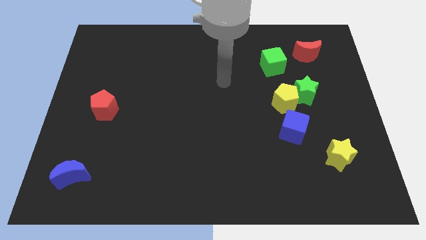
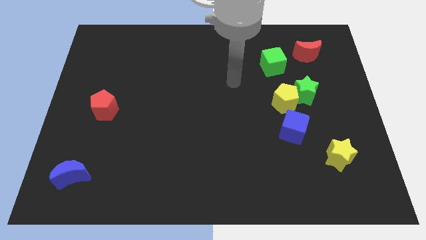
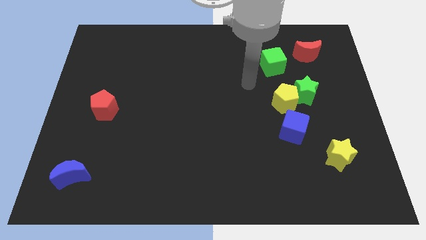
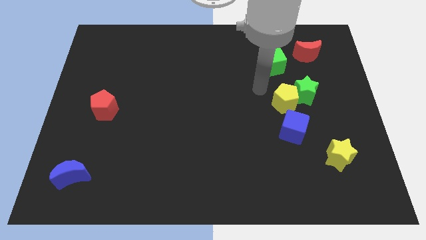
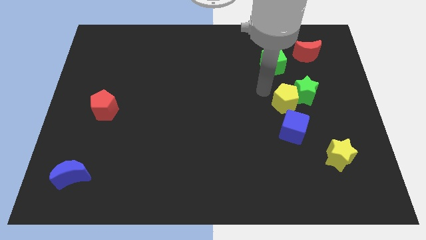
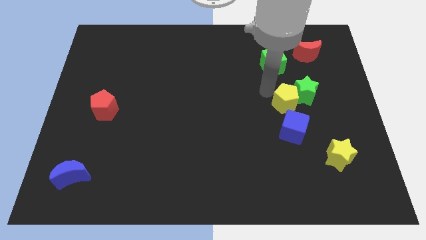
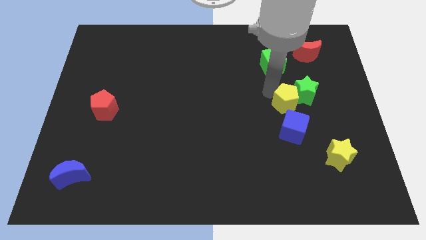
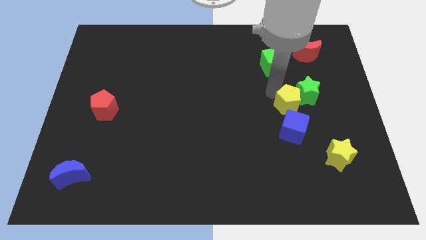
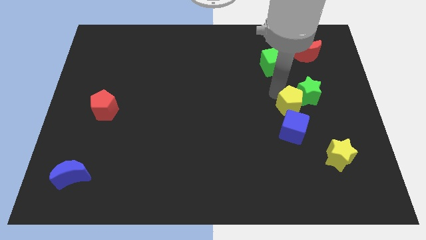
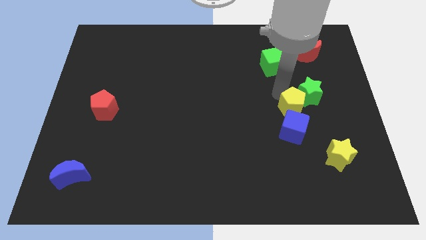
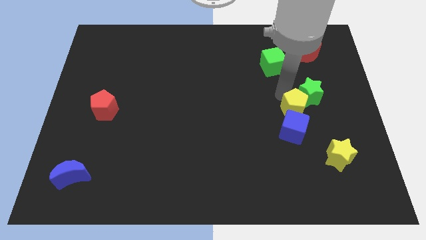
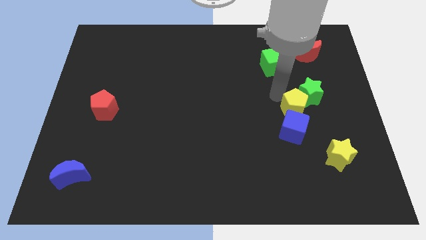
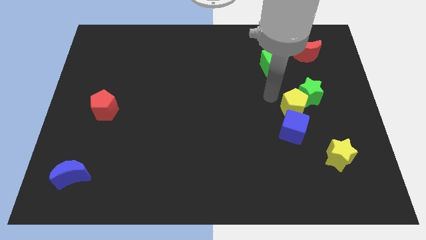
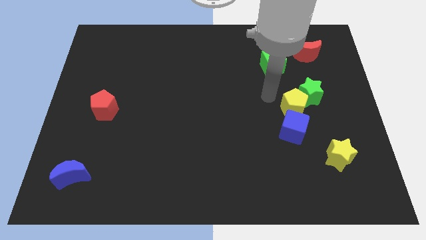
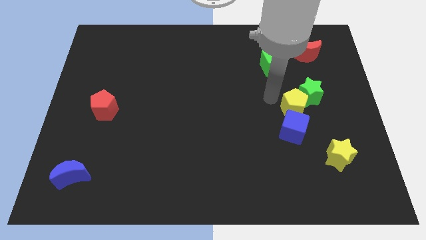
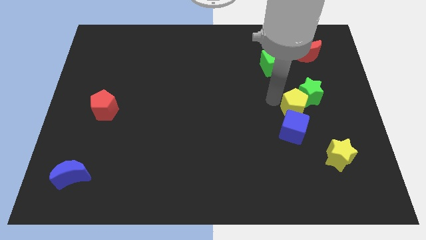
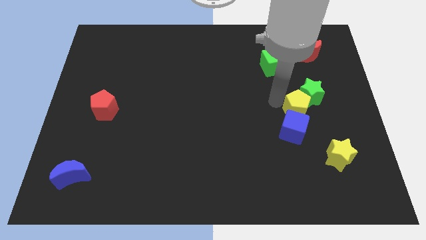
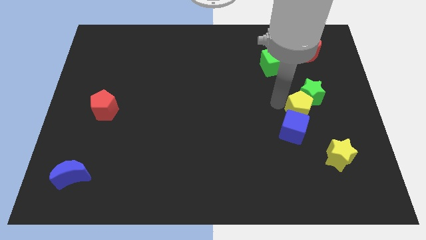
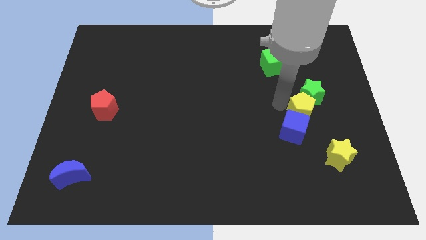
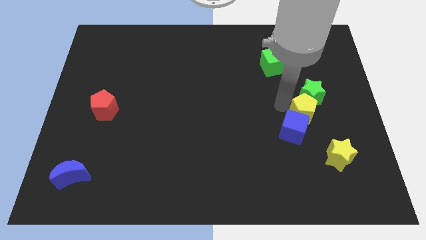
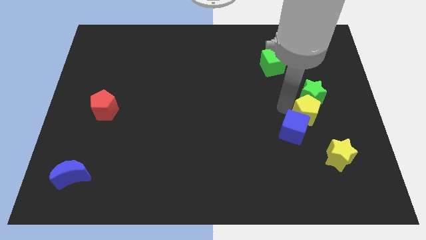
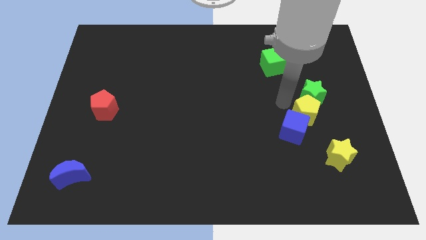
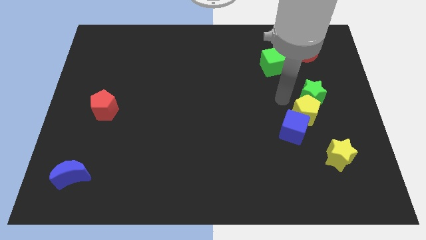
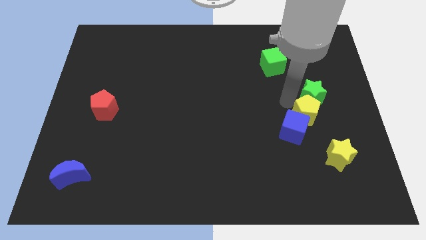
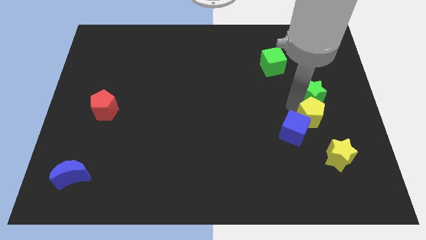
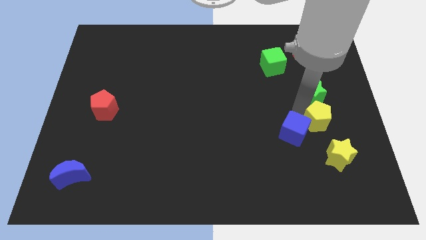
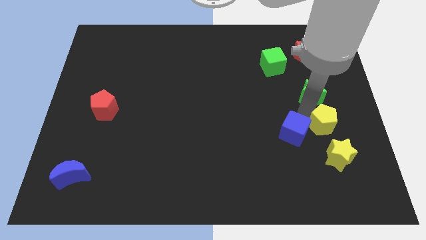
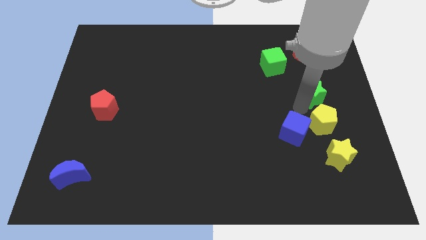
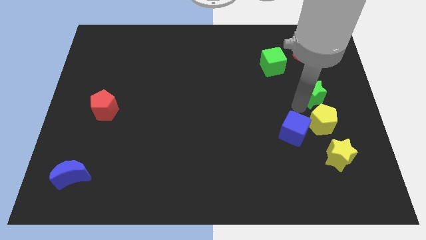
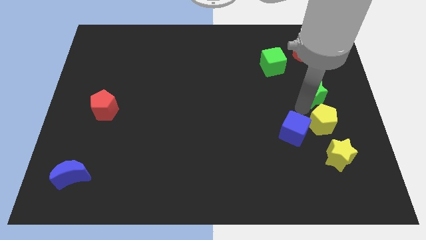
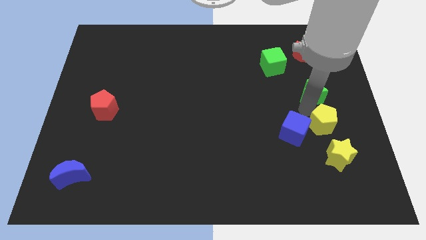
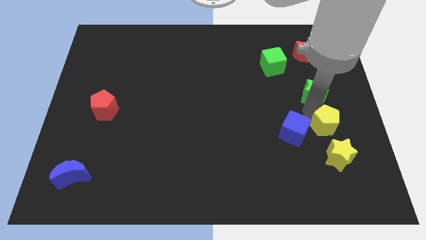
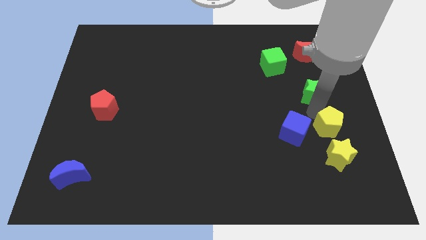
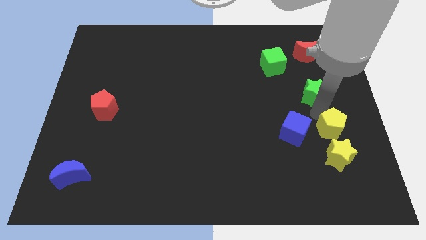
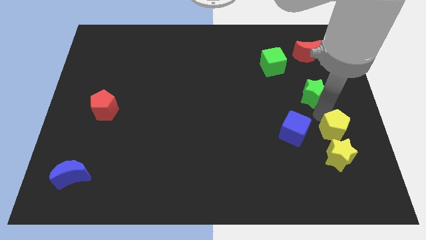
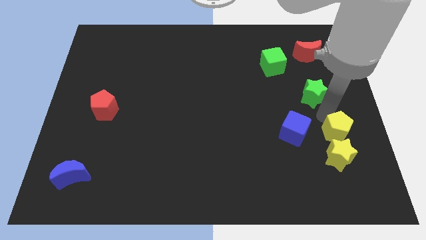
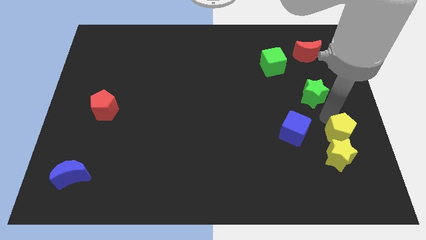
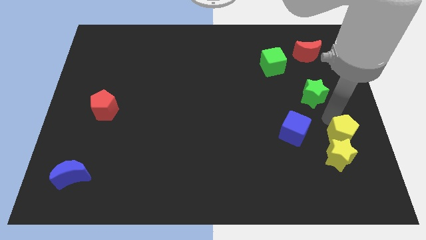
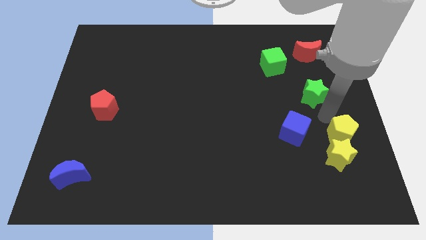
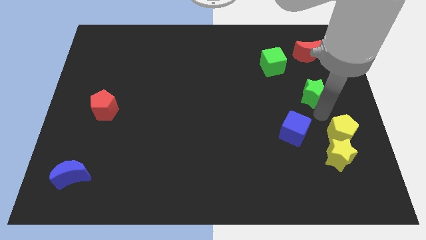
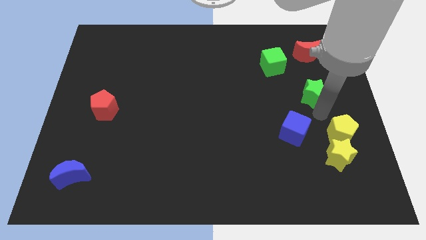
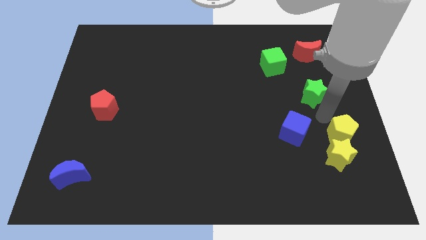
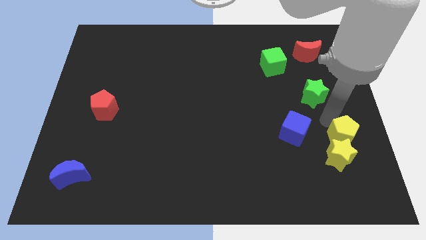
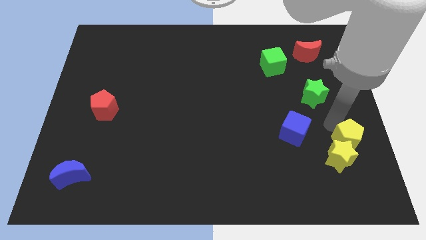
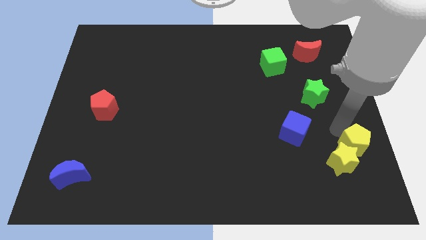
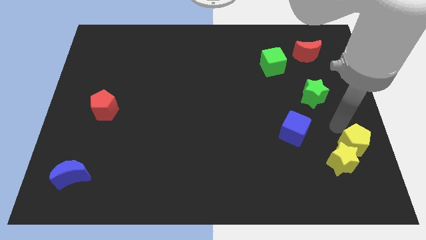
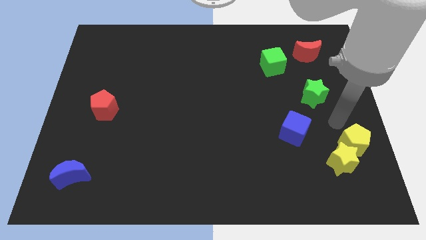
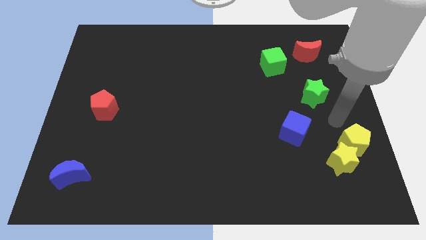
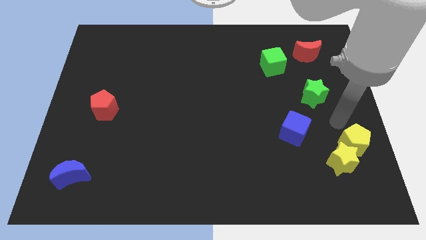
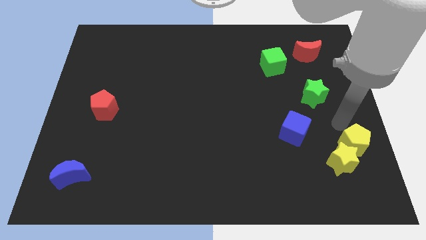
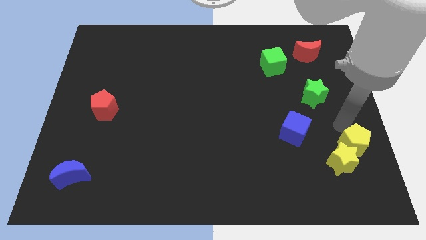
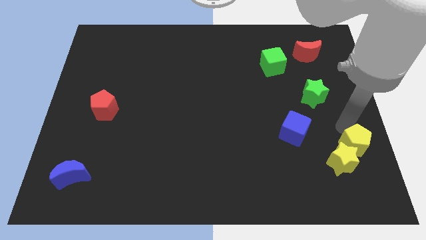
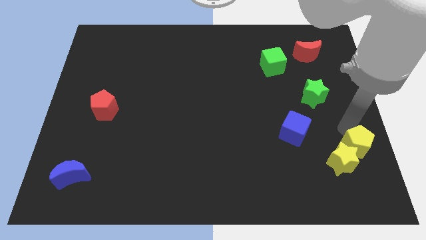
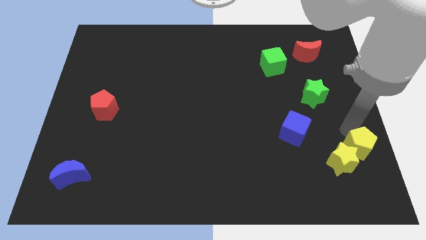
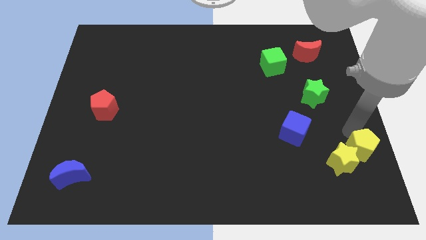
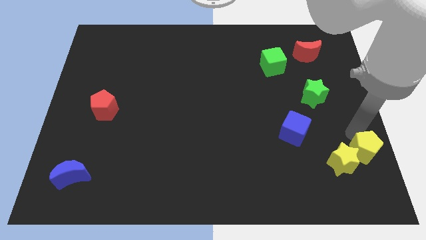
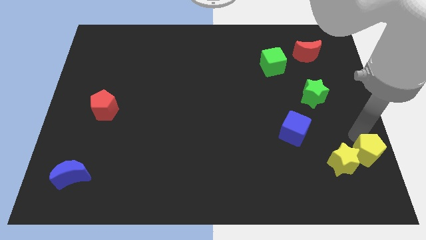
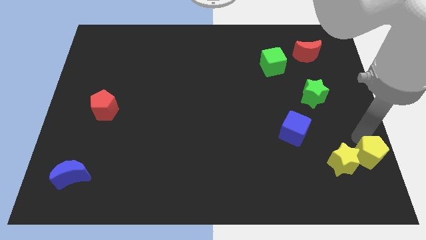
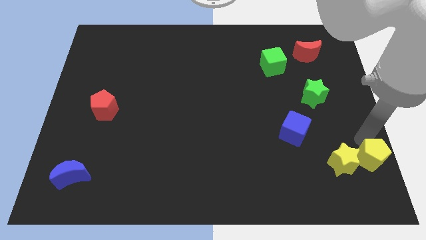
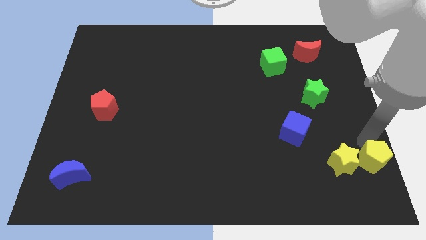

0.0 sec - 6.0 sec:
put the yellow pentagon to the bottom right corner

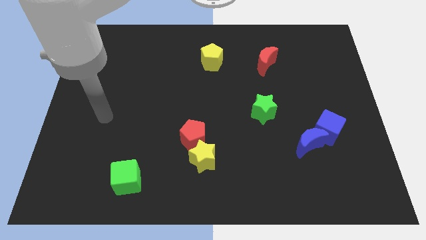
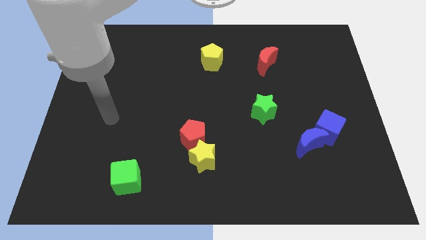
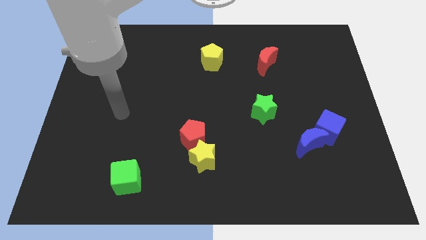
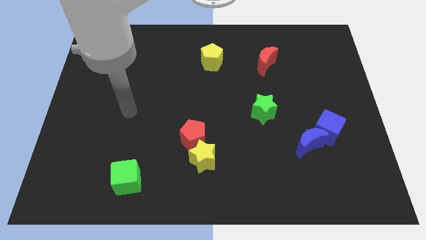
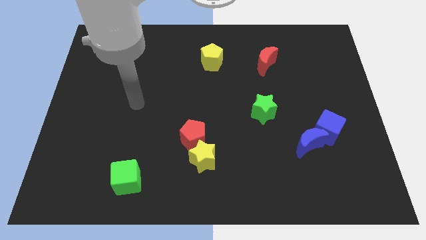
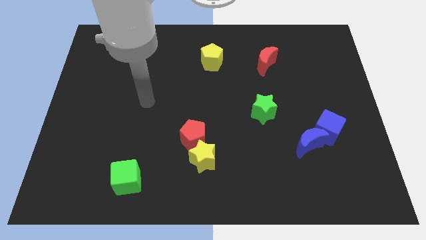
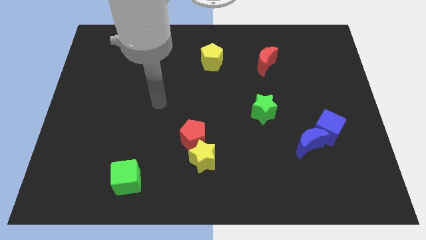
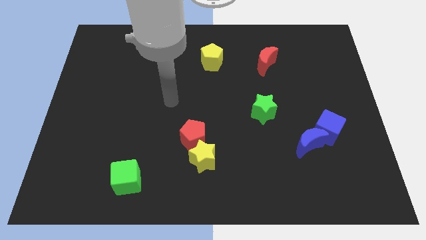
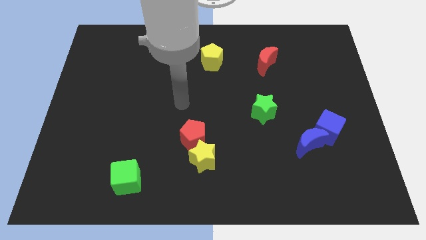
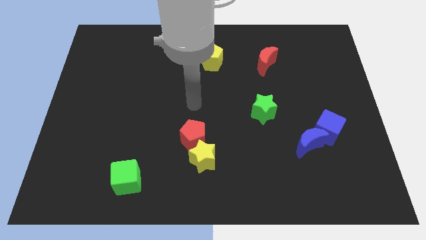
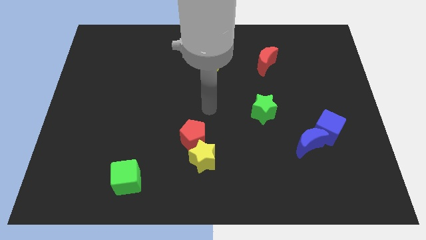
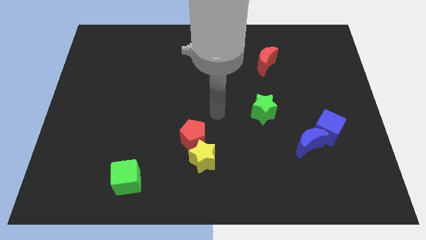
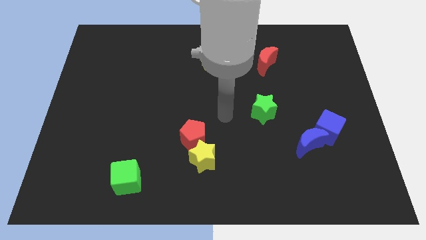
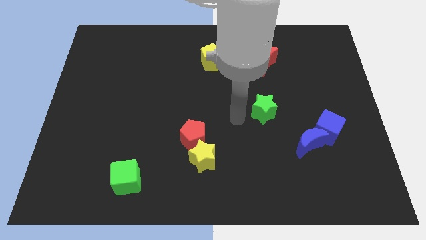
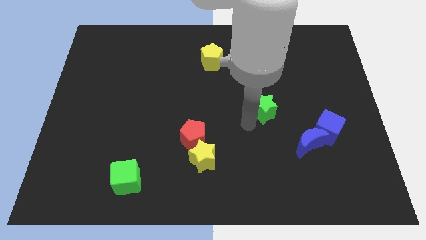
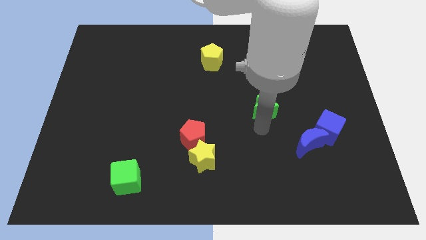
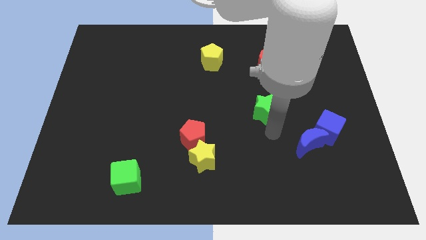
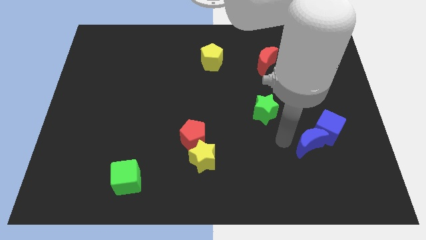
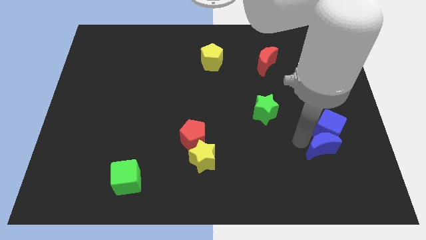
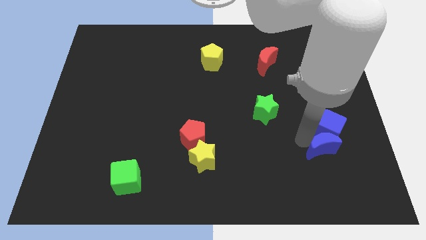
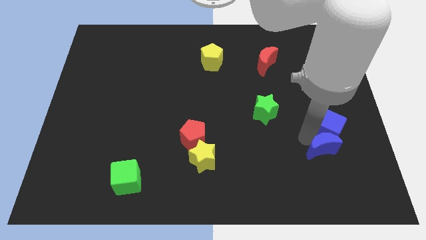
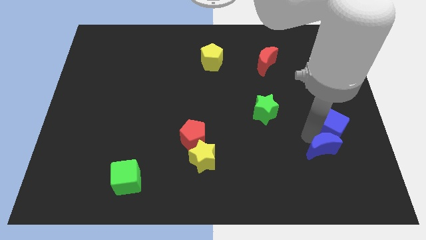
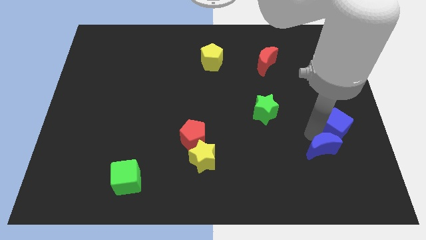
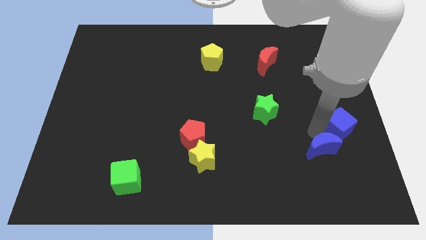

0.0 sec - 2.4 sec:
push the blue cube to the right side
